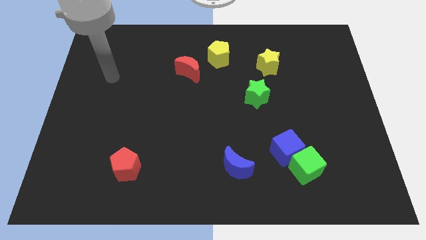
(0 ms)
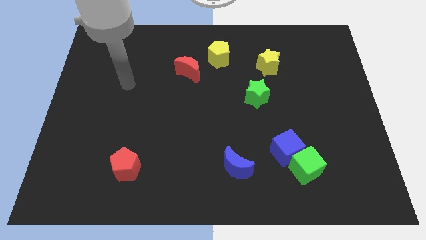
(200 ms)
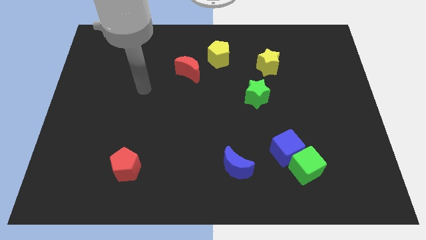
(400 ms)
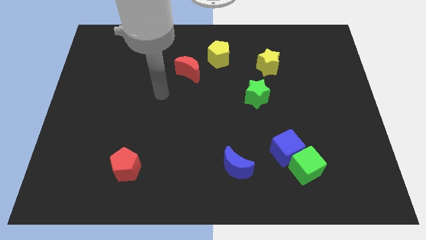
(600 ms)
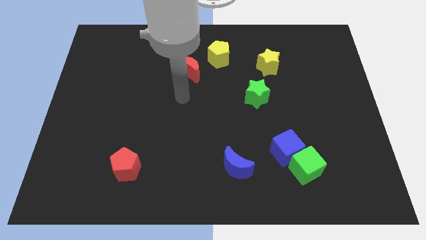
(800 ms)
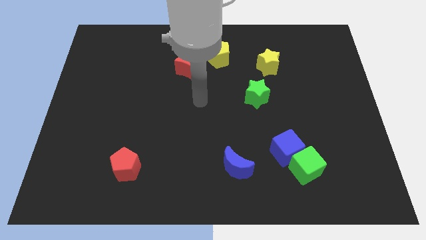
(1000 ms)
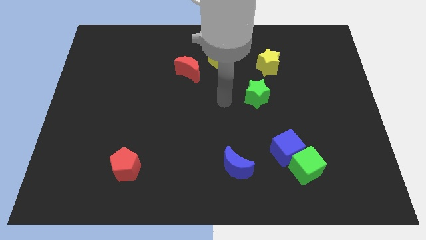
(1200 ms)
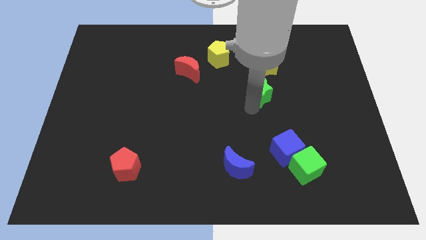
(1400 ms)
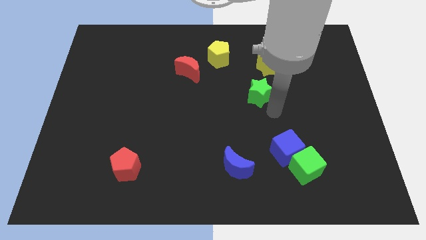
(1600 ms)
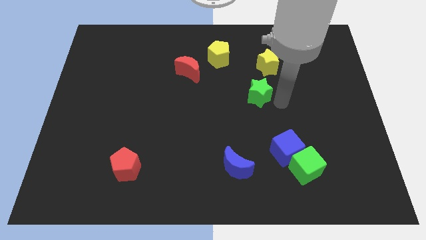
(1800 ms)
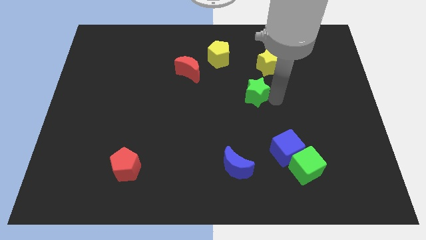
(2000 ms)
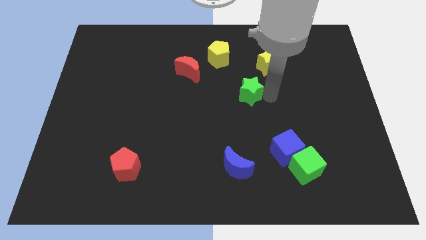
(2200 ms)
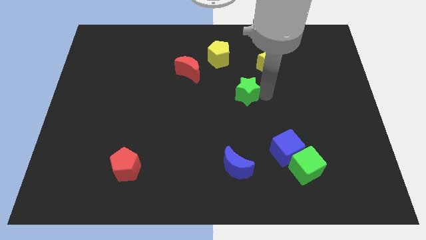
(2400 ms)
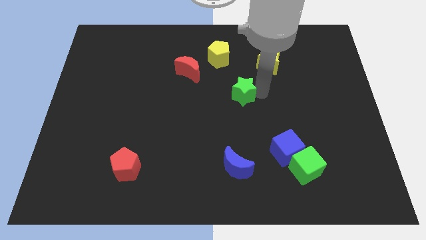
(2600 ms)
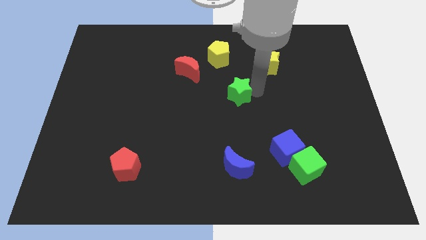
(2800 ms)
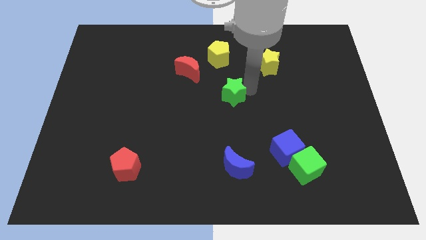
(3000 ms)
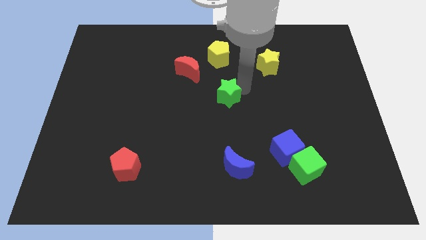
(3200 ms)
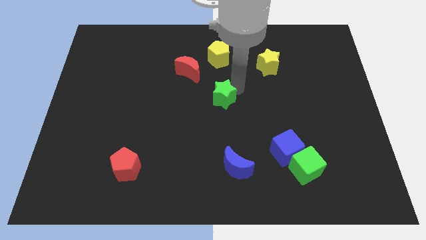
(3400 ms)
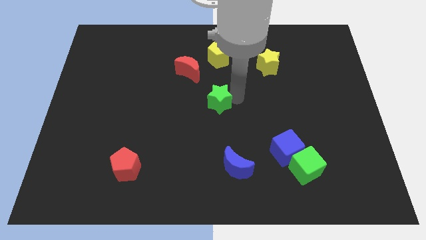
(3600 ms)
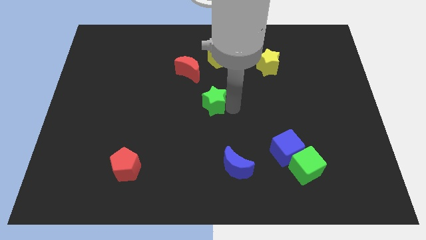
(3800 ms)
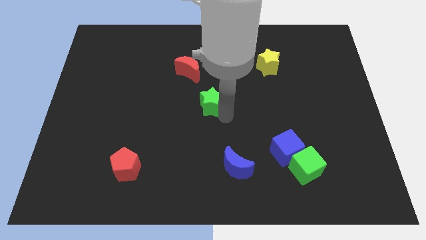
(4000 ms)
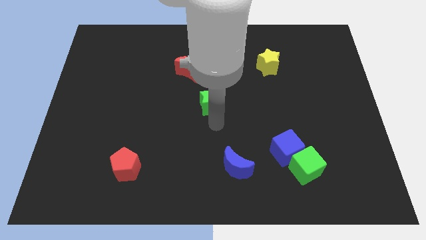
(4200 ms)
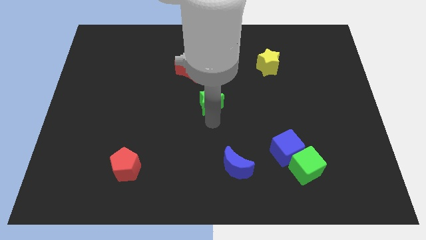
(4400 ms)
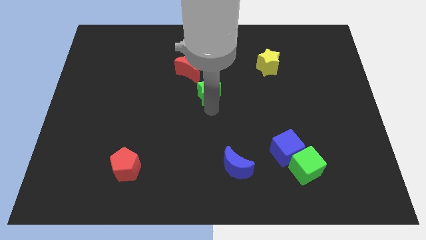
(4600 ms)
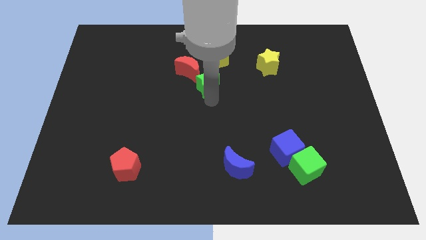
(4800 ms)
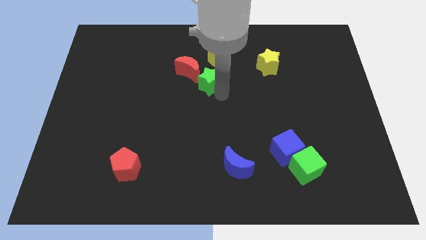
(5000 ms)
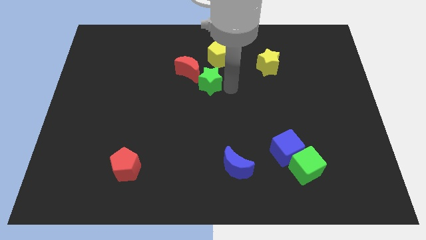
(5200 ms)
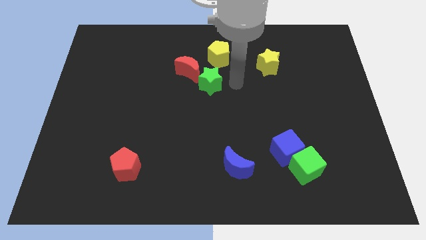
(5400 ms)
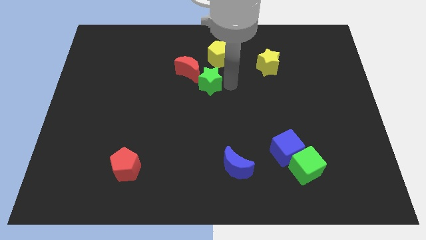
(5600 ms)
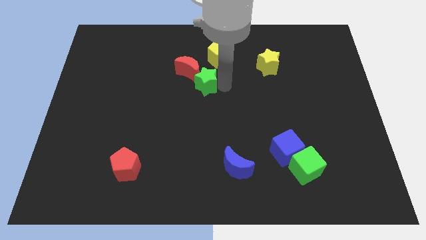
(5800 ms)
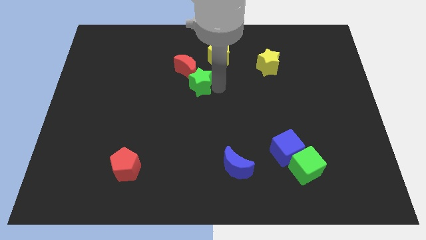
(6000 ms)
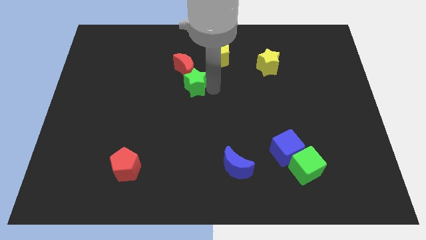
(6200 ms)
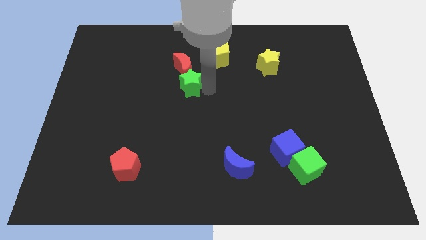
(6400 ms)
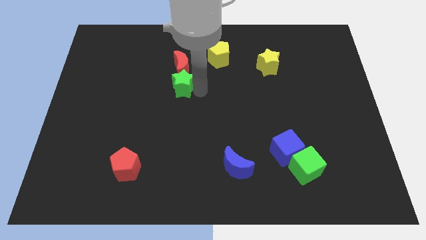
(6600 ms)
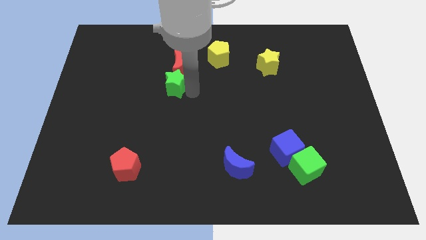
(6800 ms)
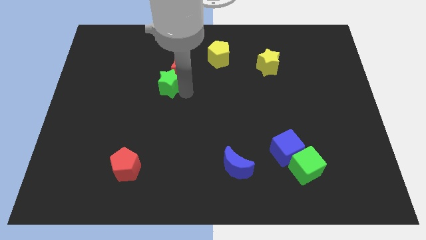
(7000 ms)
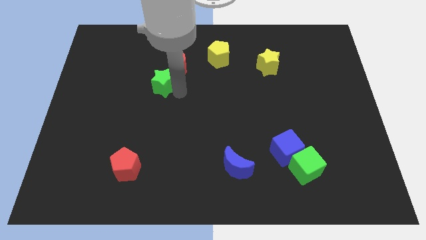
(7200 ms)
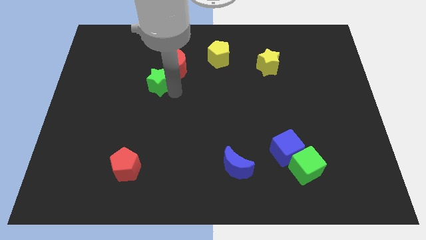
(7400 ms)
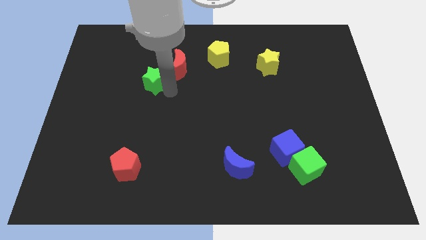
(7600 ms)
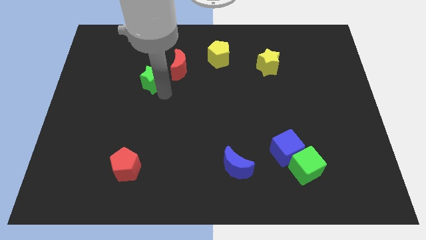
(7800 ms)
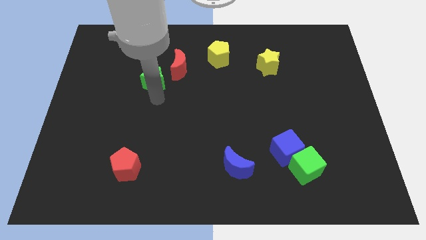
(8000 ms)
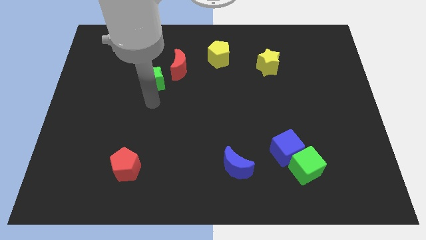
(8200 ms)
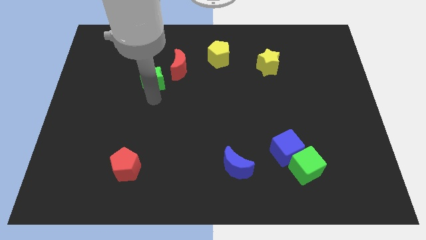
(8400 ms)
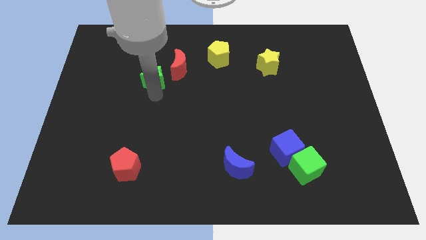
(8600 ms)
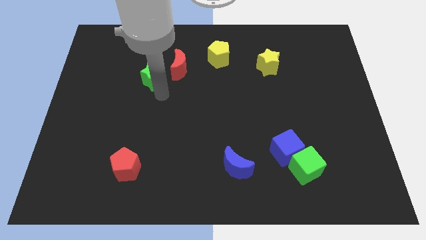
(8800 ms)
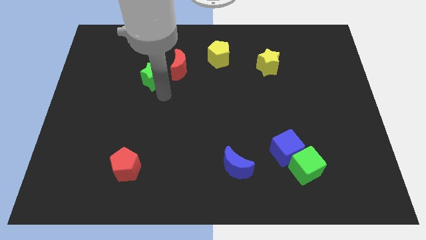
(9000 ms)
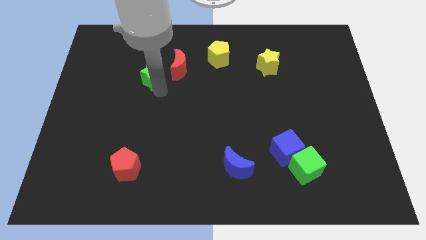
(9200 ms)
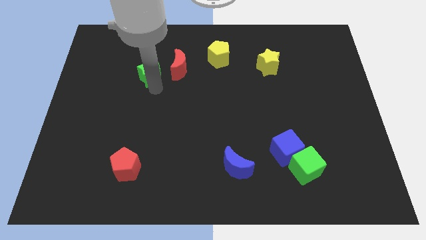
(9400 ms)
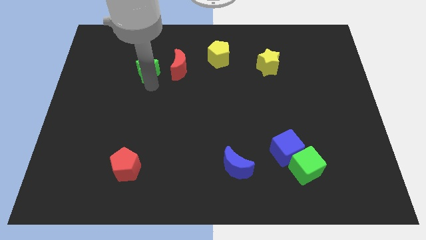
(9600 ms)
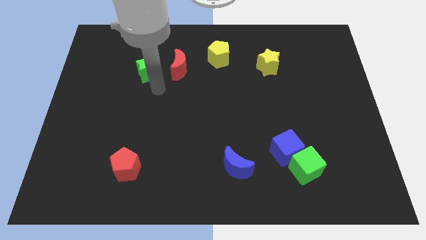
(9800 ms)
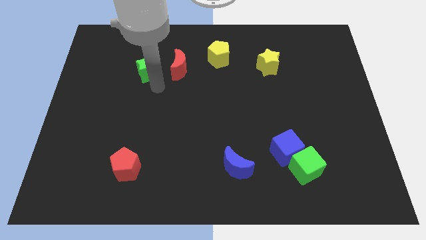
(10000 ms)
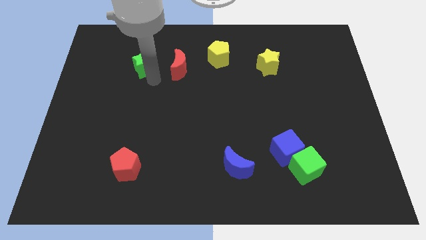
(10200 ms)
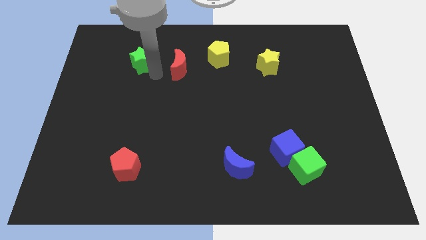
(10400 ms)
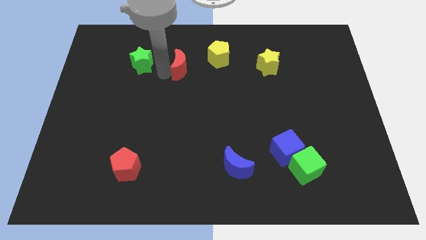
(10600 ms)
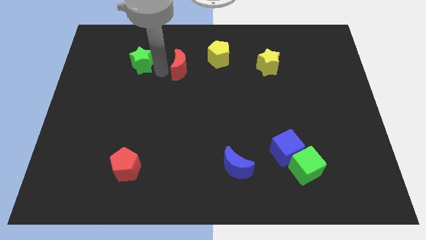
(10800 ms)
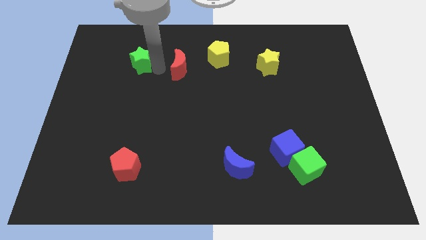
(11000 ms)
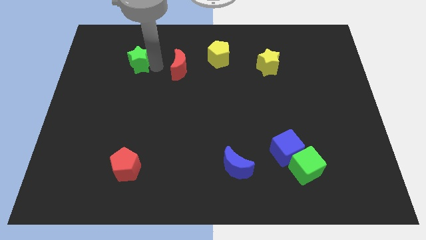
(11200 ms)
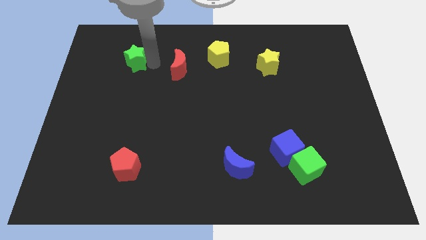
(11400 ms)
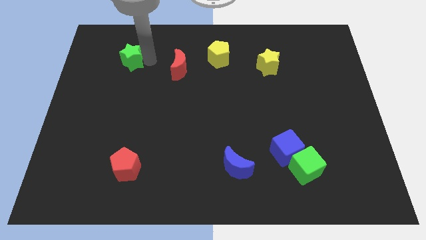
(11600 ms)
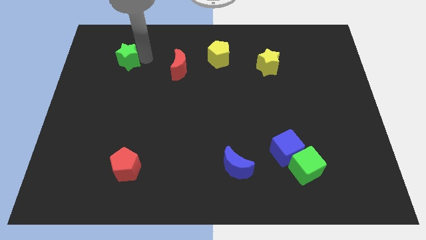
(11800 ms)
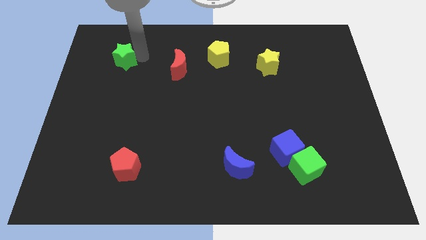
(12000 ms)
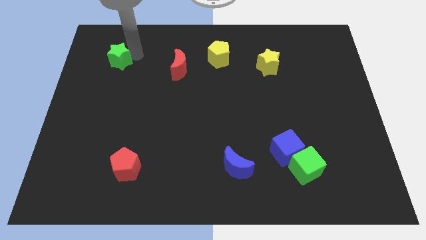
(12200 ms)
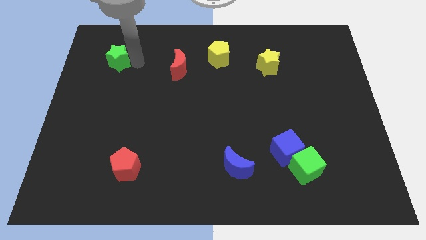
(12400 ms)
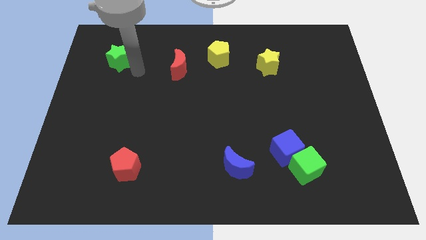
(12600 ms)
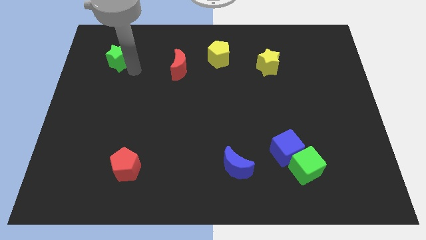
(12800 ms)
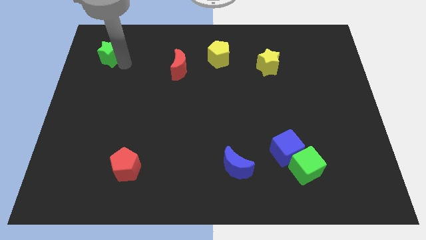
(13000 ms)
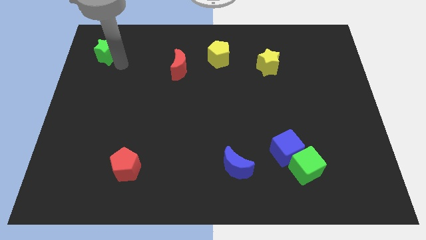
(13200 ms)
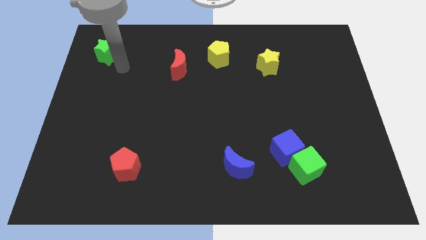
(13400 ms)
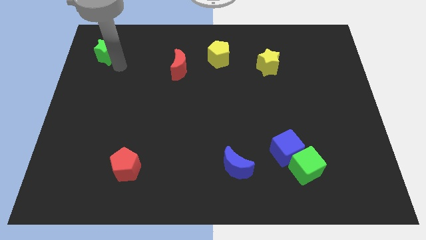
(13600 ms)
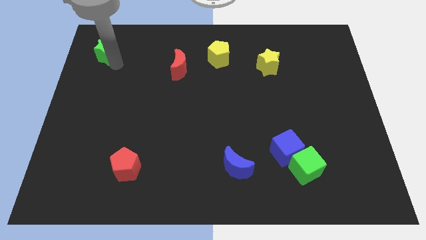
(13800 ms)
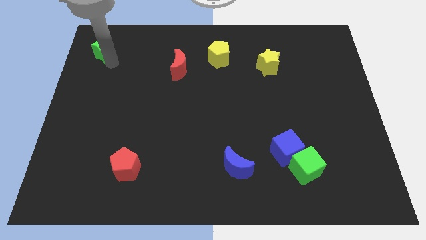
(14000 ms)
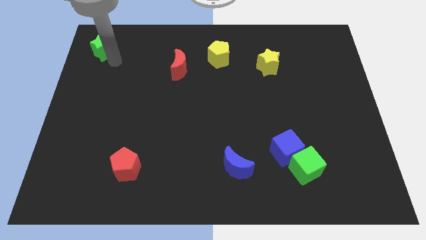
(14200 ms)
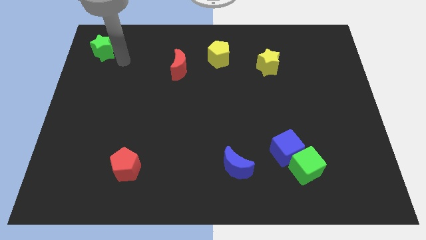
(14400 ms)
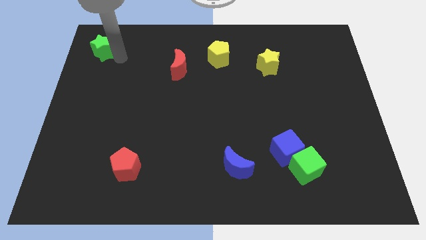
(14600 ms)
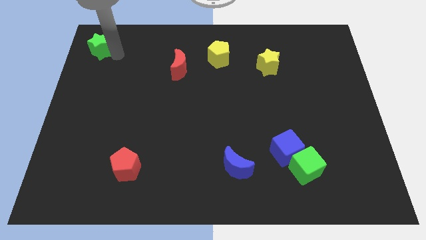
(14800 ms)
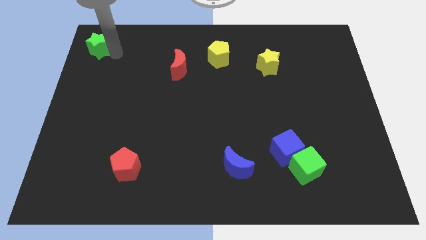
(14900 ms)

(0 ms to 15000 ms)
push the green star to the upper left corner
